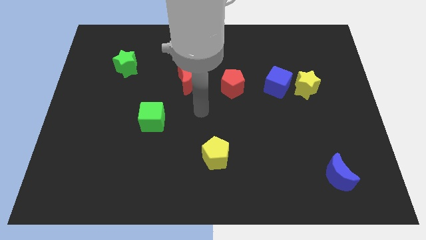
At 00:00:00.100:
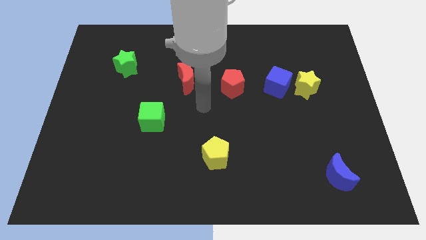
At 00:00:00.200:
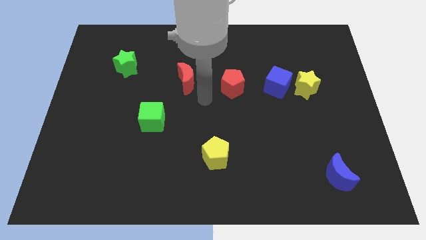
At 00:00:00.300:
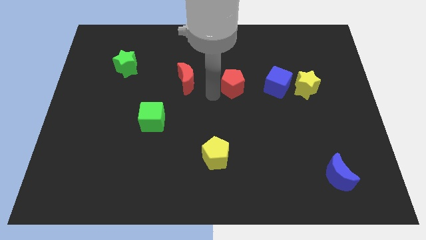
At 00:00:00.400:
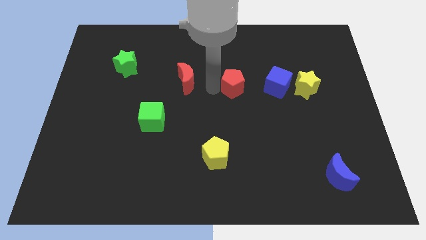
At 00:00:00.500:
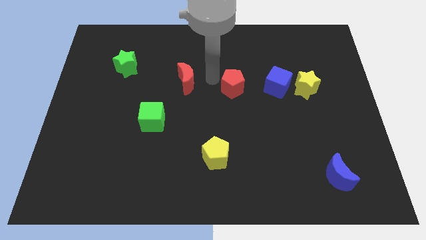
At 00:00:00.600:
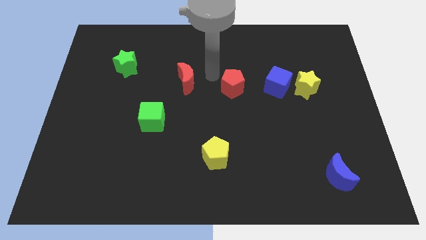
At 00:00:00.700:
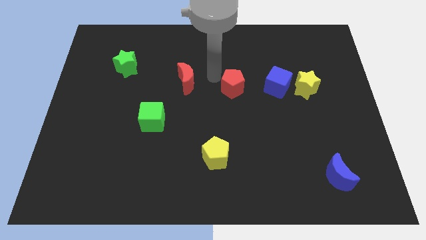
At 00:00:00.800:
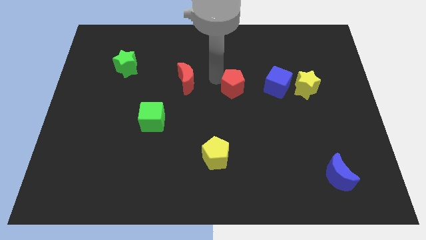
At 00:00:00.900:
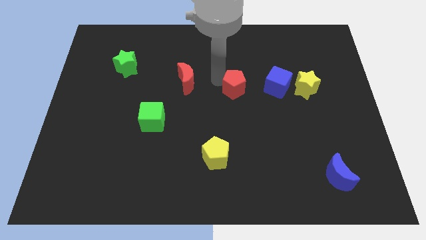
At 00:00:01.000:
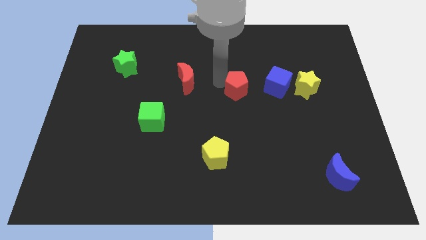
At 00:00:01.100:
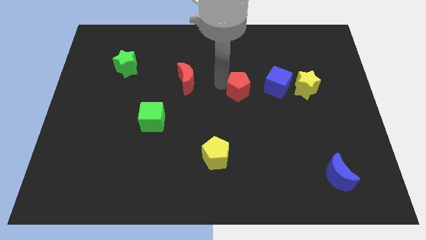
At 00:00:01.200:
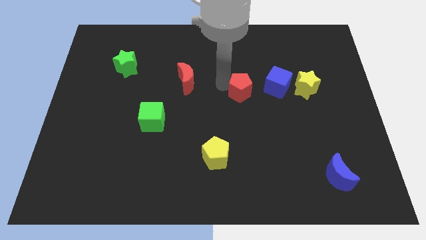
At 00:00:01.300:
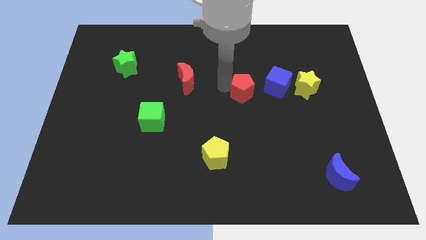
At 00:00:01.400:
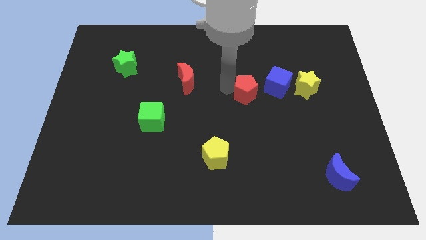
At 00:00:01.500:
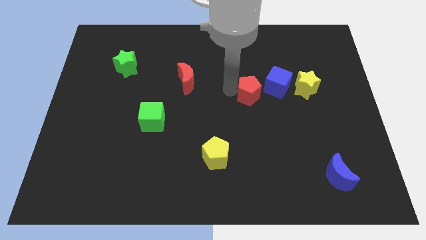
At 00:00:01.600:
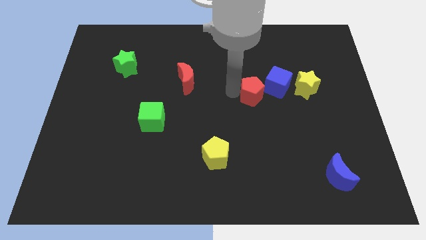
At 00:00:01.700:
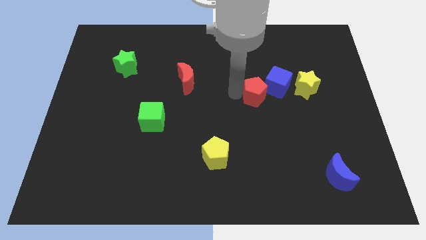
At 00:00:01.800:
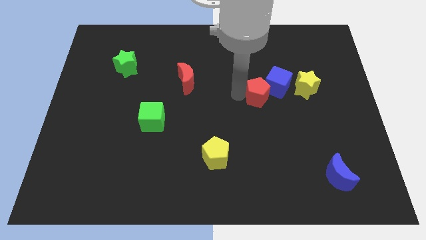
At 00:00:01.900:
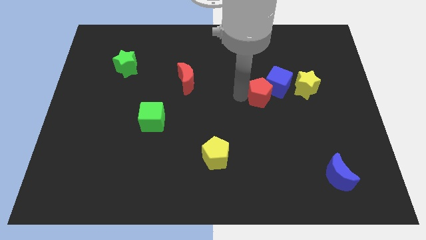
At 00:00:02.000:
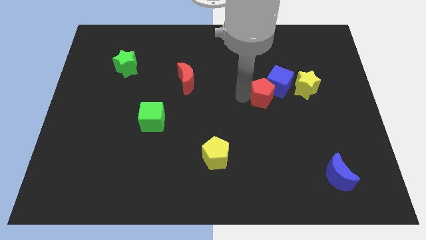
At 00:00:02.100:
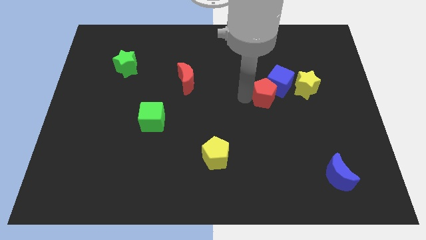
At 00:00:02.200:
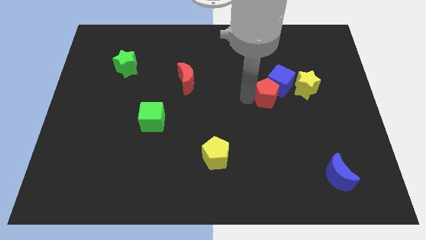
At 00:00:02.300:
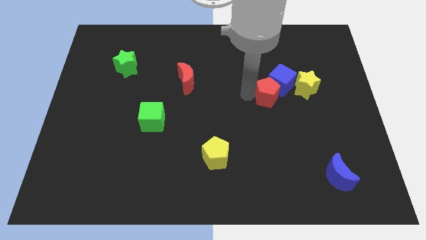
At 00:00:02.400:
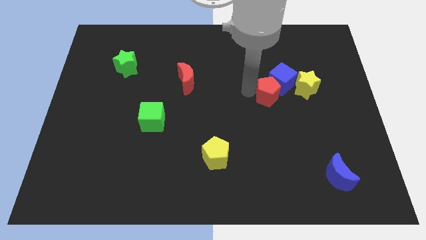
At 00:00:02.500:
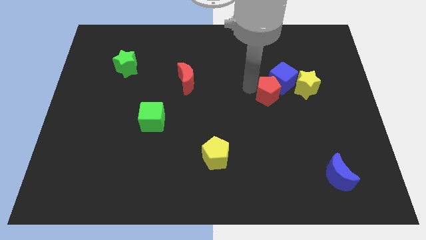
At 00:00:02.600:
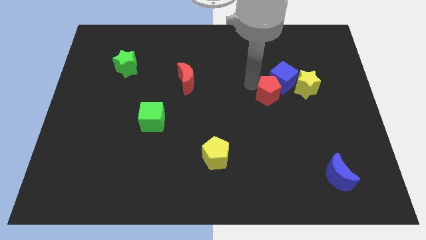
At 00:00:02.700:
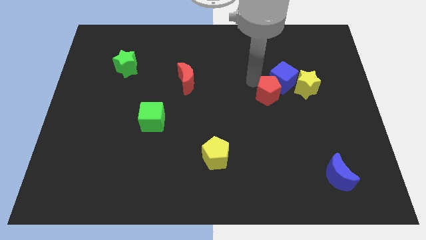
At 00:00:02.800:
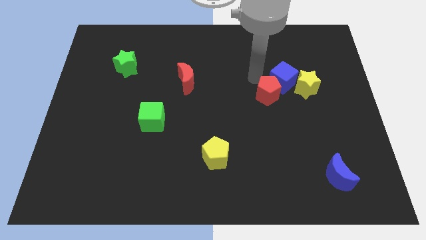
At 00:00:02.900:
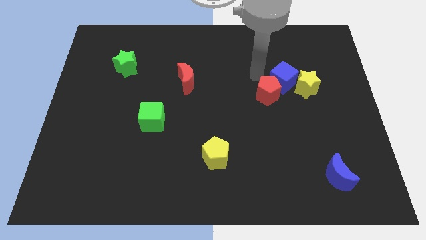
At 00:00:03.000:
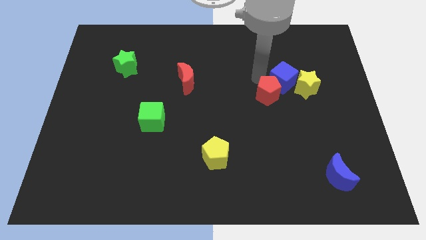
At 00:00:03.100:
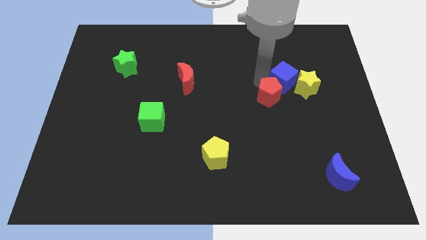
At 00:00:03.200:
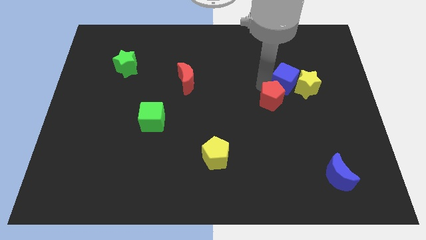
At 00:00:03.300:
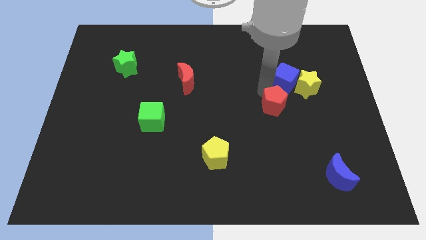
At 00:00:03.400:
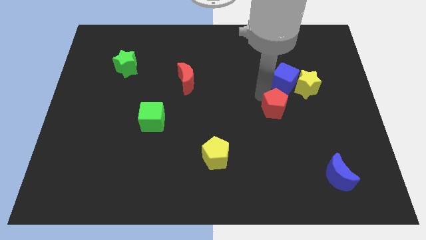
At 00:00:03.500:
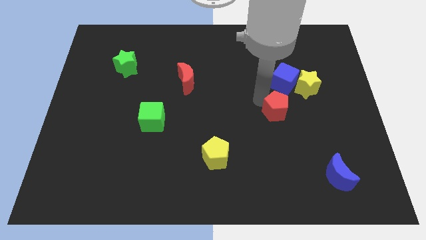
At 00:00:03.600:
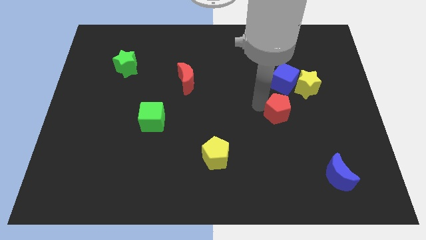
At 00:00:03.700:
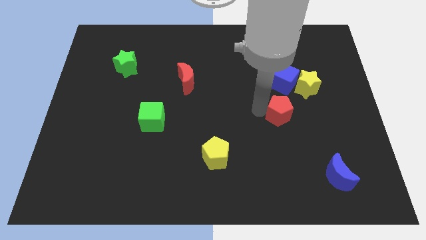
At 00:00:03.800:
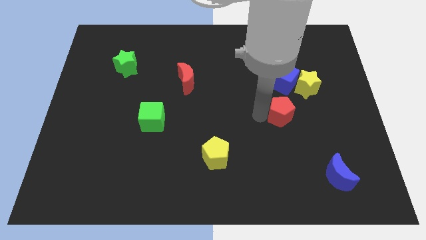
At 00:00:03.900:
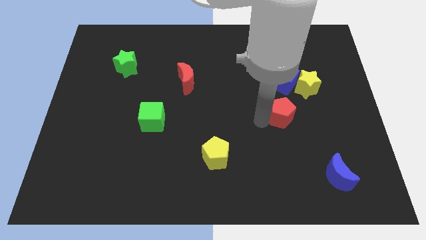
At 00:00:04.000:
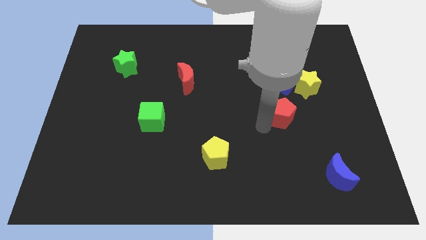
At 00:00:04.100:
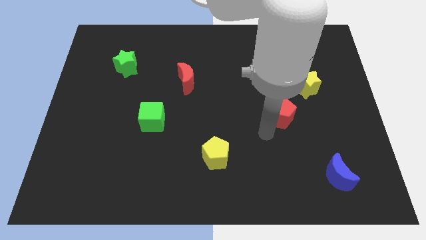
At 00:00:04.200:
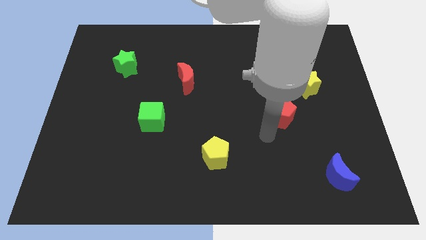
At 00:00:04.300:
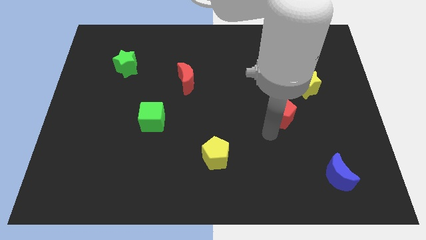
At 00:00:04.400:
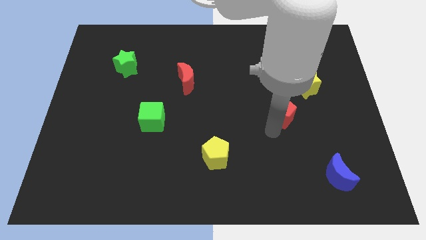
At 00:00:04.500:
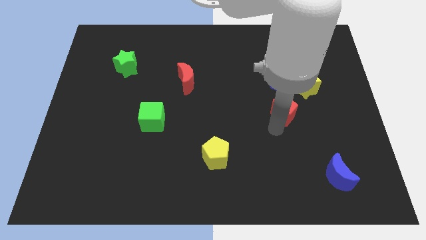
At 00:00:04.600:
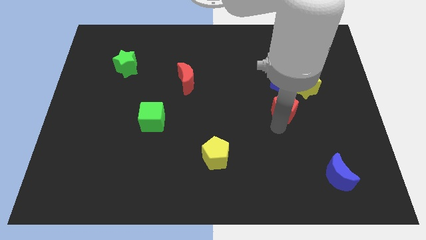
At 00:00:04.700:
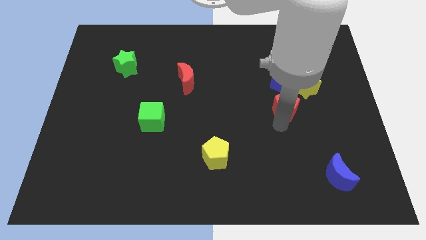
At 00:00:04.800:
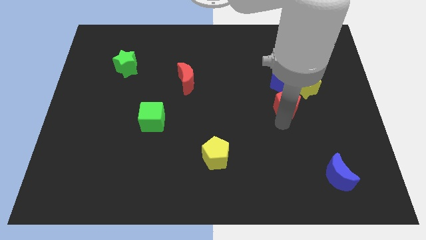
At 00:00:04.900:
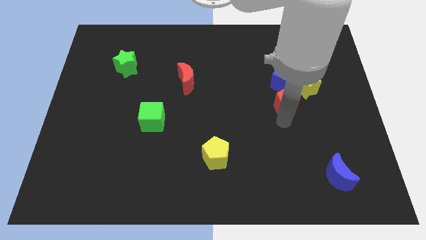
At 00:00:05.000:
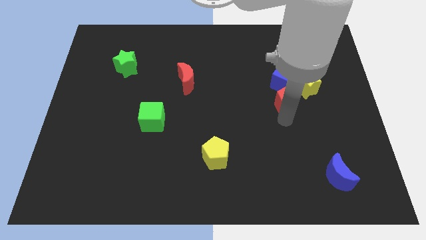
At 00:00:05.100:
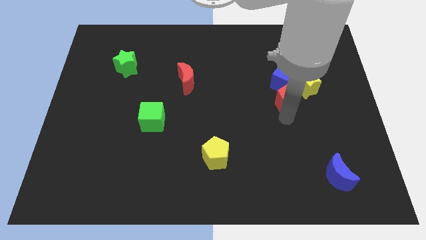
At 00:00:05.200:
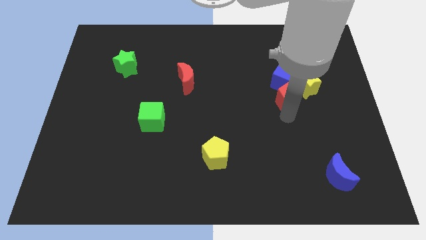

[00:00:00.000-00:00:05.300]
slide the red pentagon to the yellow star

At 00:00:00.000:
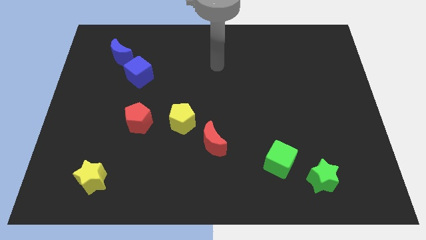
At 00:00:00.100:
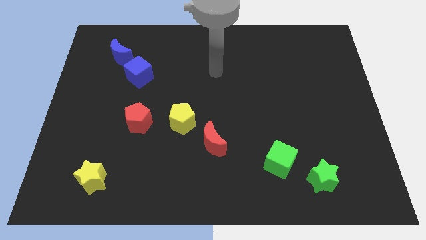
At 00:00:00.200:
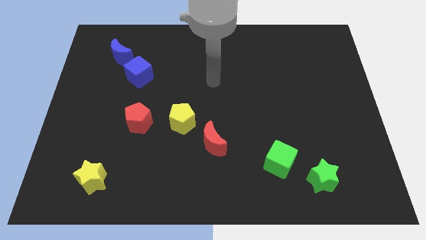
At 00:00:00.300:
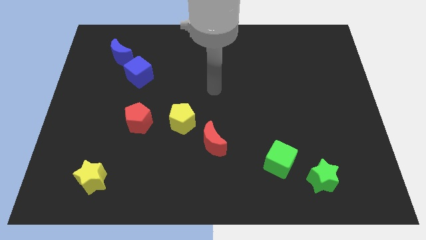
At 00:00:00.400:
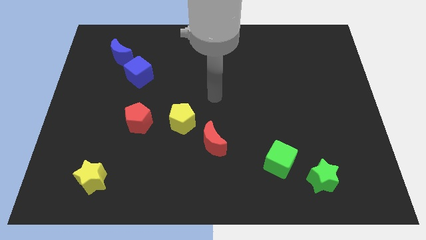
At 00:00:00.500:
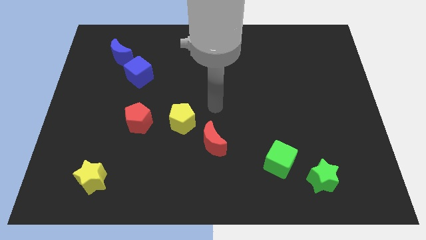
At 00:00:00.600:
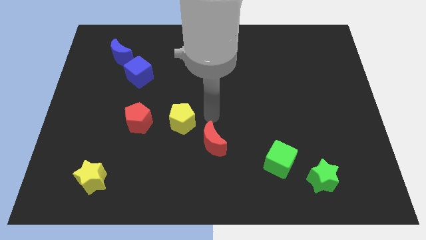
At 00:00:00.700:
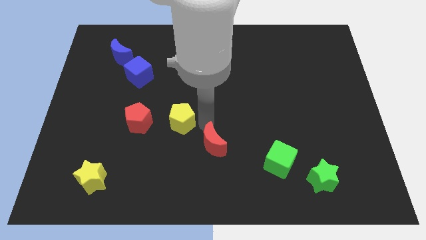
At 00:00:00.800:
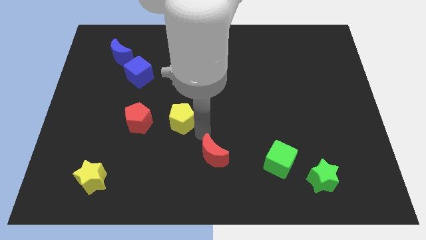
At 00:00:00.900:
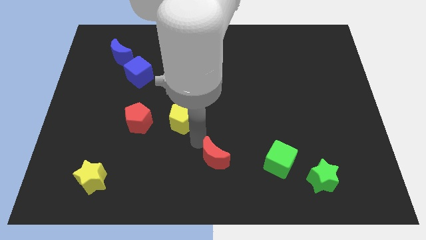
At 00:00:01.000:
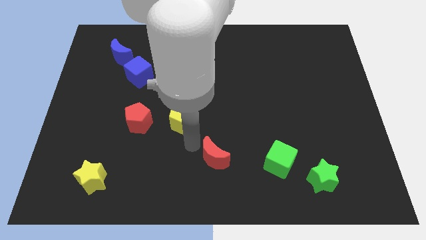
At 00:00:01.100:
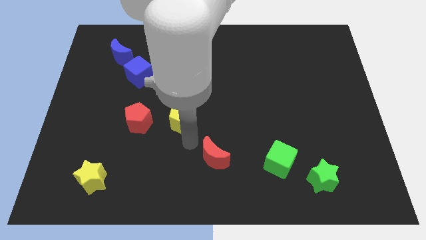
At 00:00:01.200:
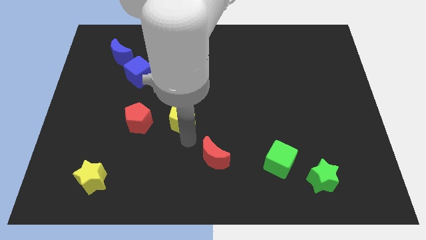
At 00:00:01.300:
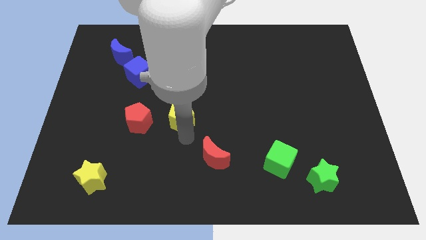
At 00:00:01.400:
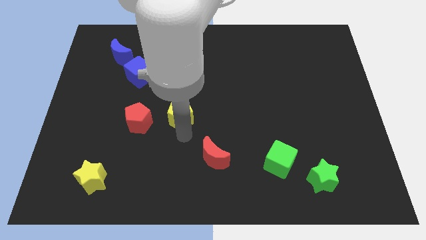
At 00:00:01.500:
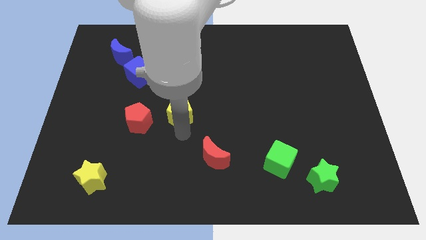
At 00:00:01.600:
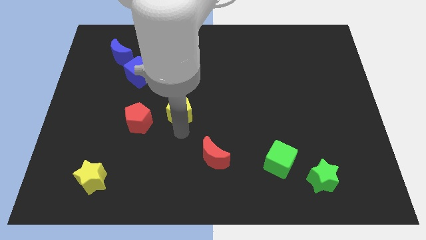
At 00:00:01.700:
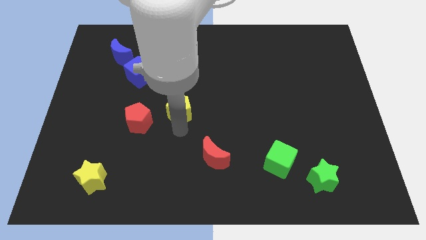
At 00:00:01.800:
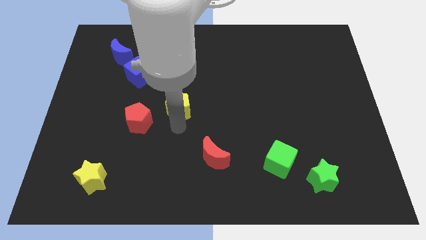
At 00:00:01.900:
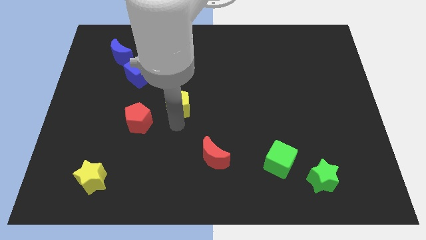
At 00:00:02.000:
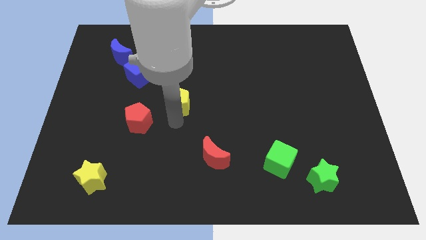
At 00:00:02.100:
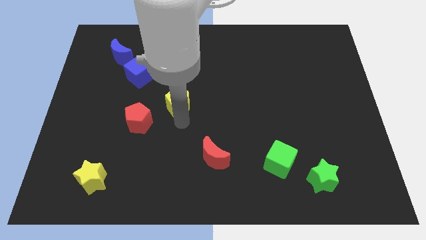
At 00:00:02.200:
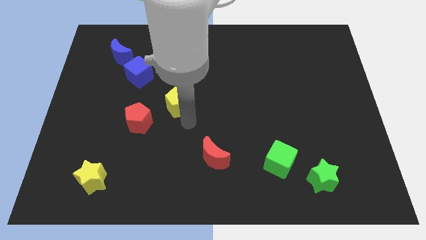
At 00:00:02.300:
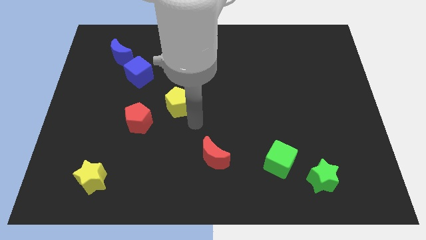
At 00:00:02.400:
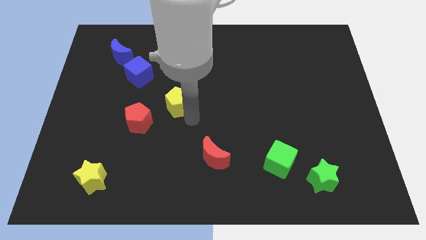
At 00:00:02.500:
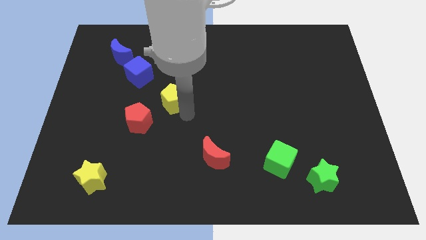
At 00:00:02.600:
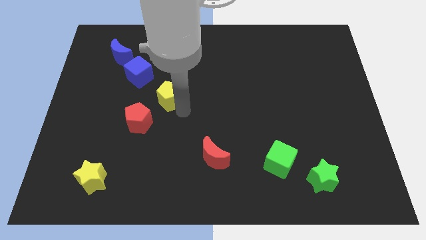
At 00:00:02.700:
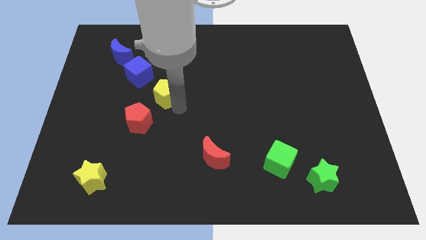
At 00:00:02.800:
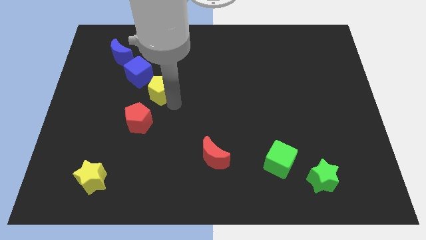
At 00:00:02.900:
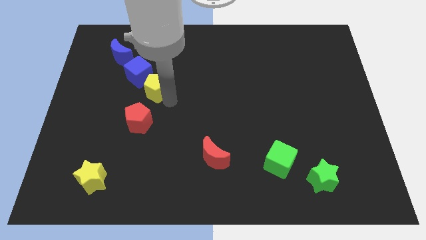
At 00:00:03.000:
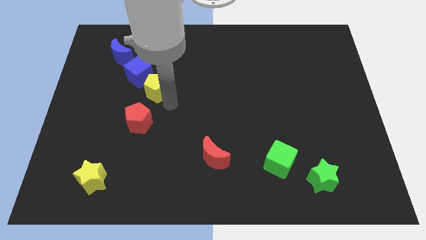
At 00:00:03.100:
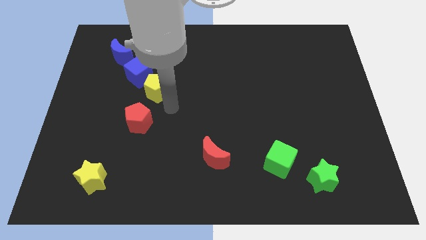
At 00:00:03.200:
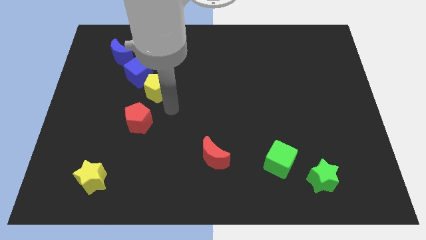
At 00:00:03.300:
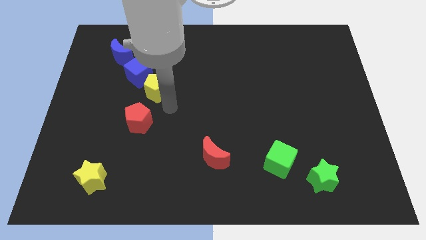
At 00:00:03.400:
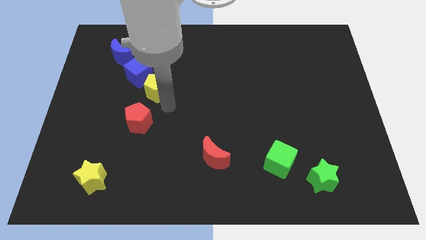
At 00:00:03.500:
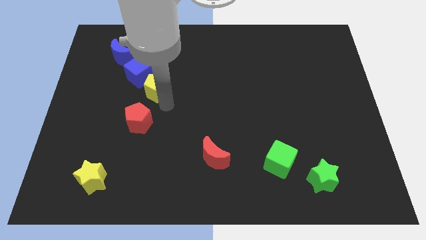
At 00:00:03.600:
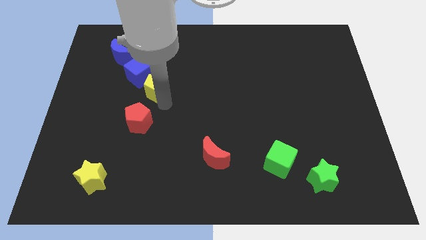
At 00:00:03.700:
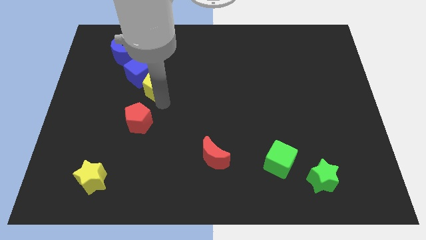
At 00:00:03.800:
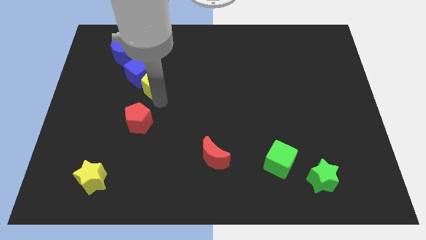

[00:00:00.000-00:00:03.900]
push the yellow pentagon next to the blue cube
